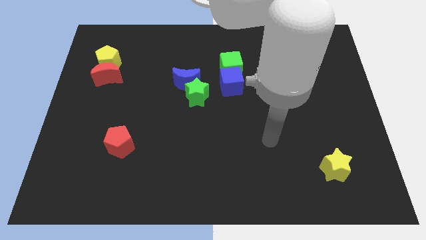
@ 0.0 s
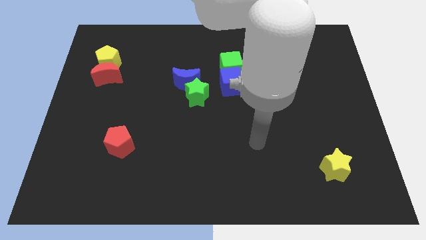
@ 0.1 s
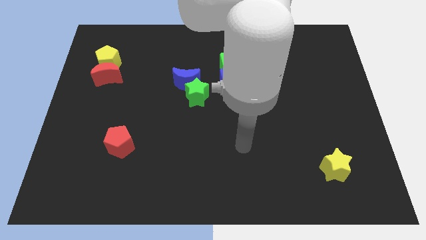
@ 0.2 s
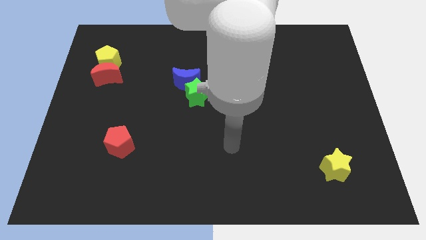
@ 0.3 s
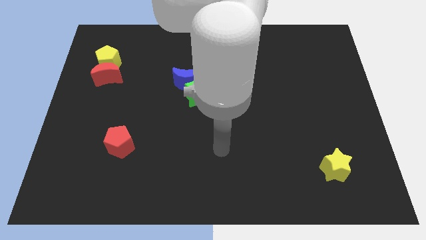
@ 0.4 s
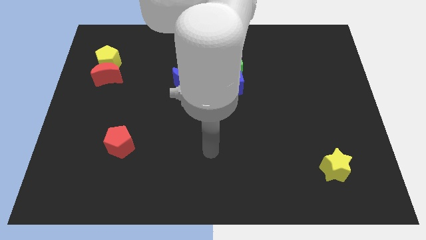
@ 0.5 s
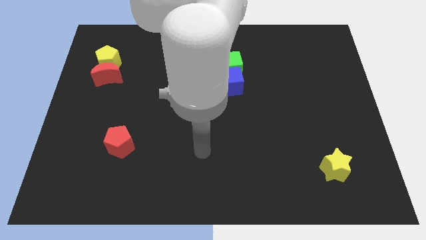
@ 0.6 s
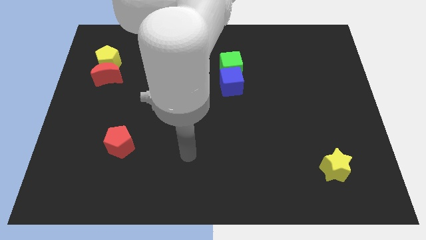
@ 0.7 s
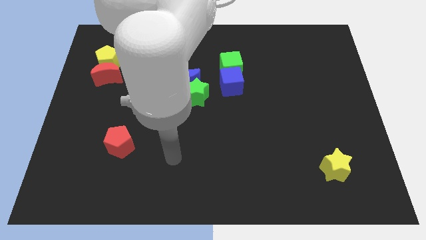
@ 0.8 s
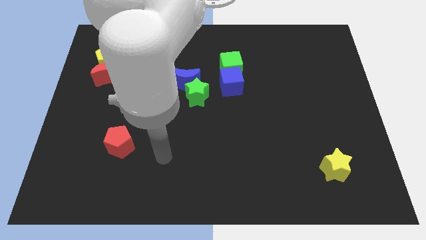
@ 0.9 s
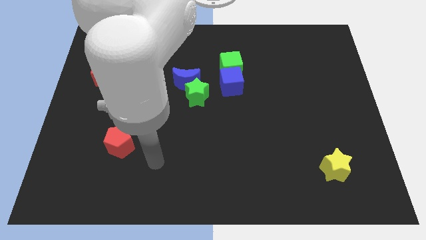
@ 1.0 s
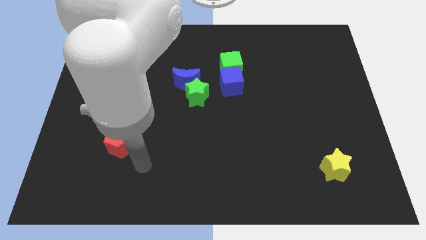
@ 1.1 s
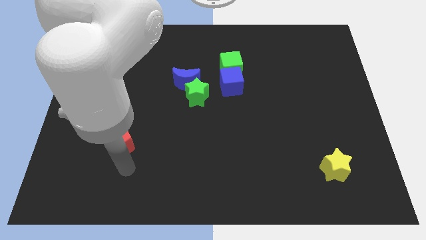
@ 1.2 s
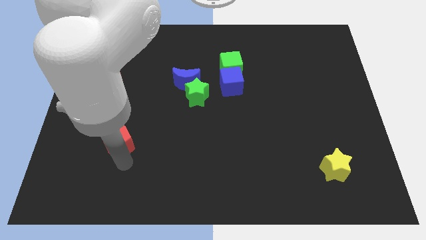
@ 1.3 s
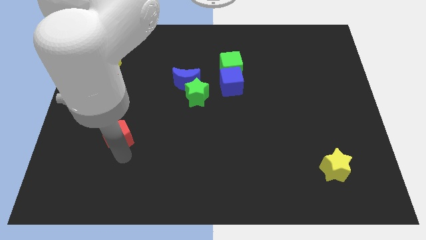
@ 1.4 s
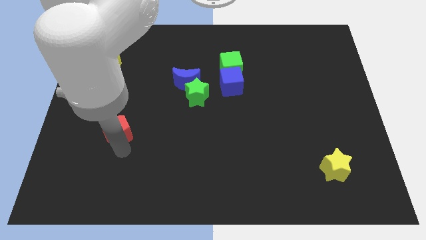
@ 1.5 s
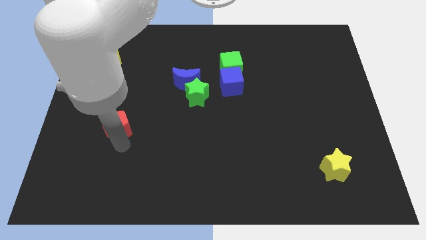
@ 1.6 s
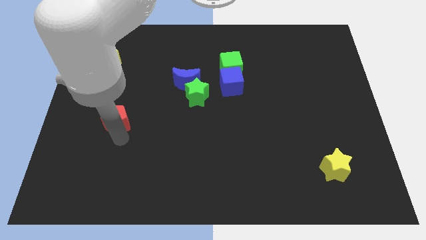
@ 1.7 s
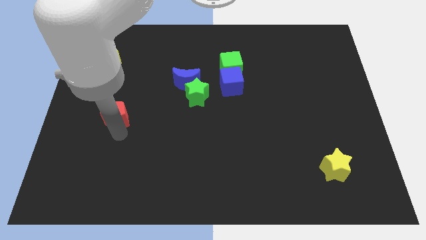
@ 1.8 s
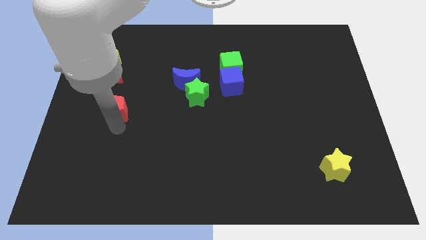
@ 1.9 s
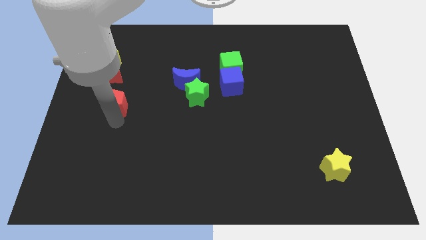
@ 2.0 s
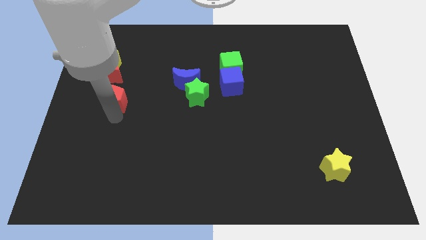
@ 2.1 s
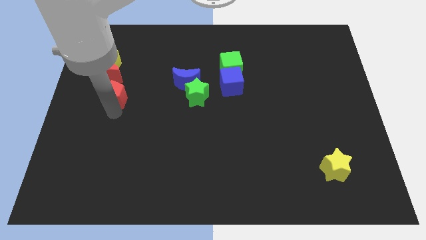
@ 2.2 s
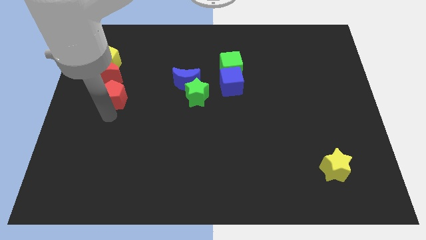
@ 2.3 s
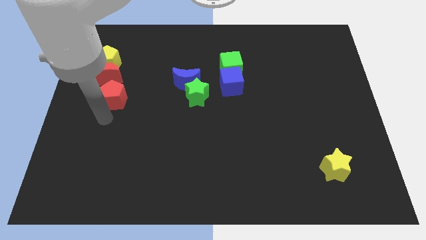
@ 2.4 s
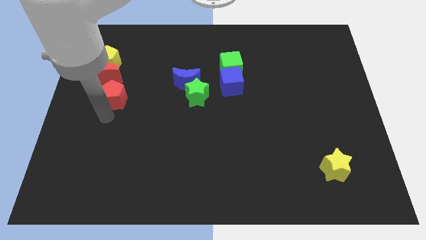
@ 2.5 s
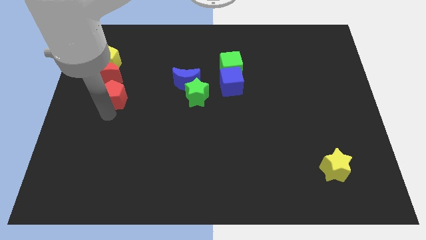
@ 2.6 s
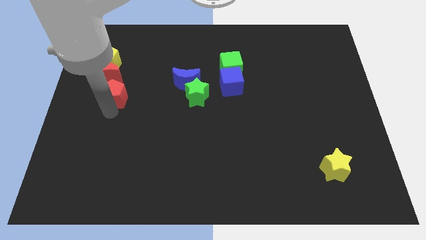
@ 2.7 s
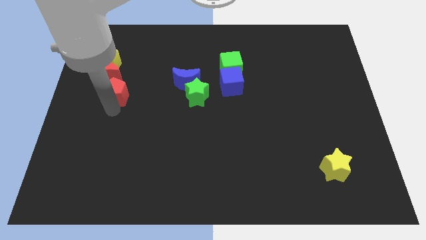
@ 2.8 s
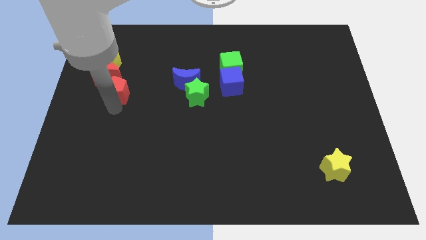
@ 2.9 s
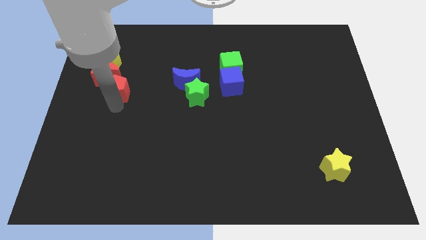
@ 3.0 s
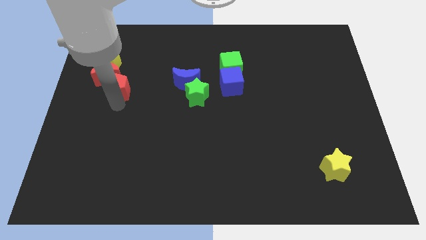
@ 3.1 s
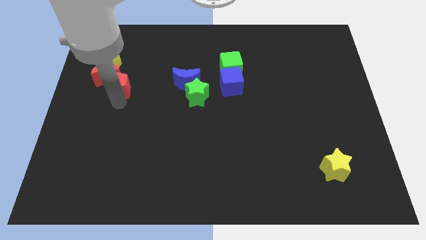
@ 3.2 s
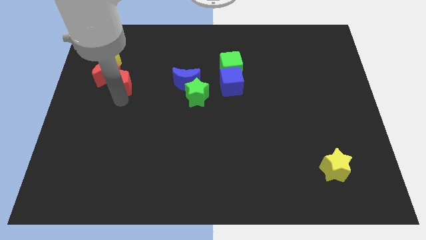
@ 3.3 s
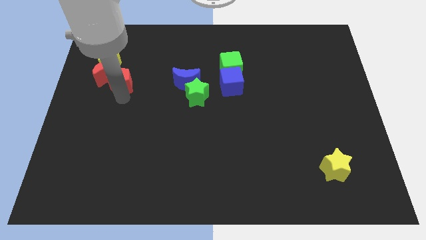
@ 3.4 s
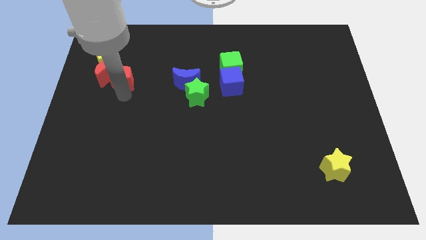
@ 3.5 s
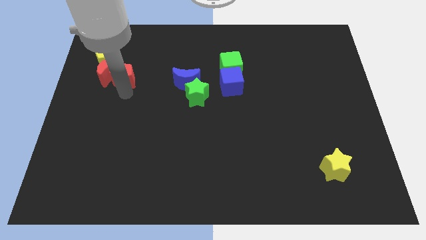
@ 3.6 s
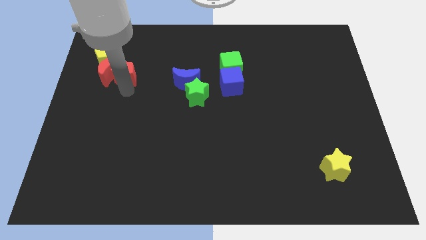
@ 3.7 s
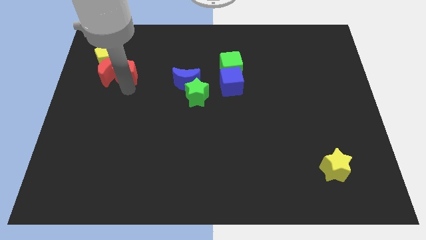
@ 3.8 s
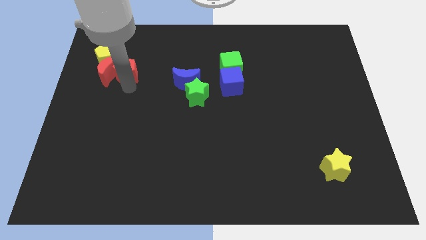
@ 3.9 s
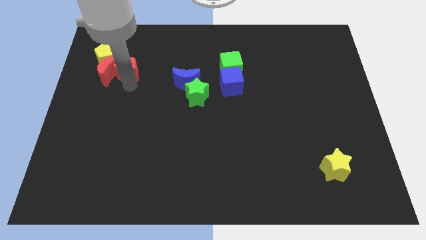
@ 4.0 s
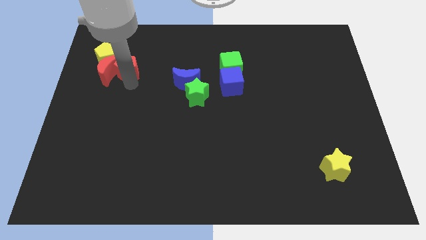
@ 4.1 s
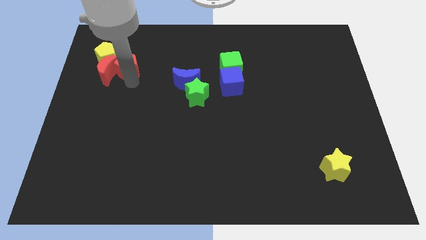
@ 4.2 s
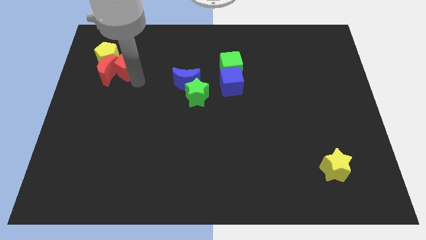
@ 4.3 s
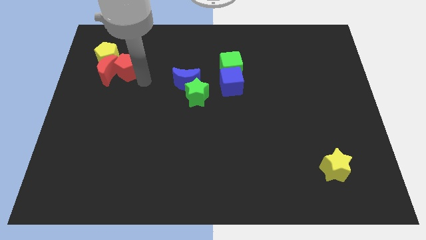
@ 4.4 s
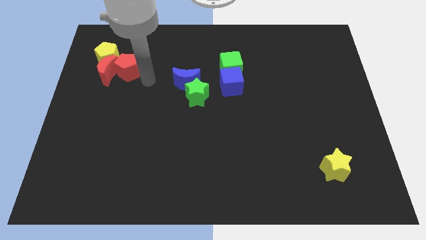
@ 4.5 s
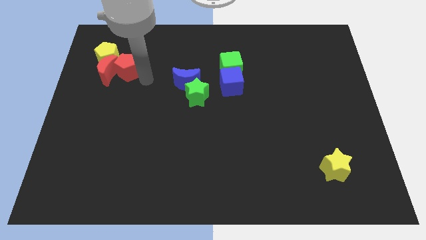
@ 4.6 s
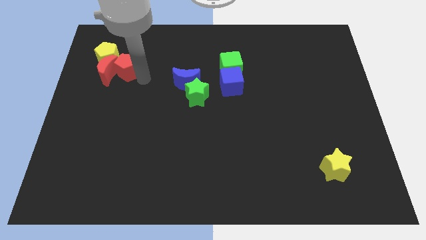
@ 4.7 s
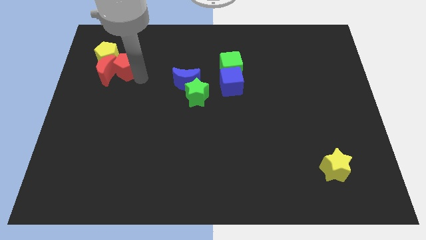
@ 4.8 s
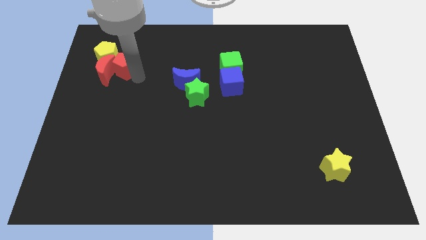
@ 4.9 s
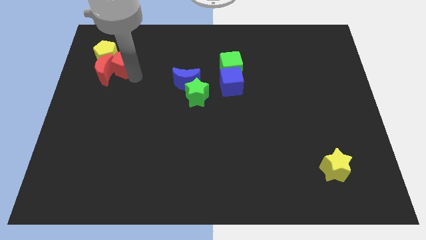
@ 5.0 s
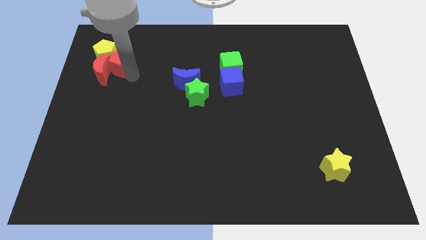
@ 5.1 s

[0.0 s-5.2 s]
push the red pentagon next to the yellow pentagon

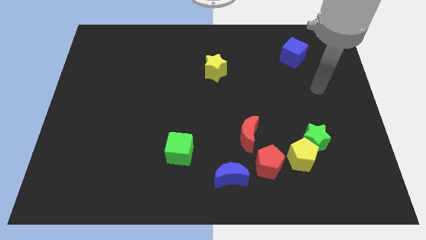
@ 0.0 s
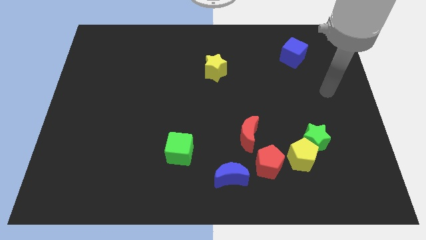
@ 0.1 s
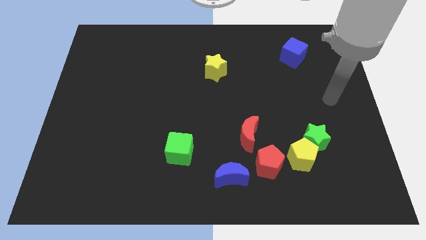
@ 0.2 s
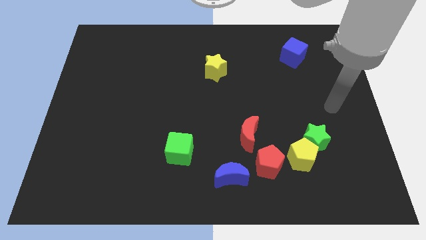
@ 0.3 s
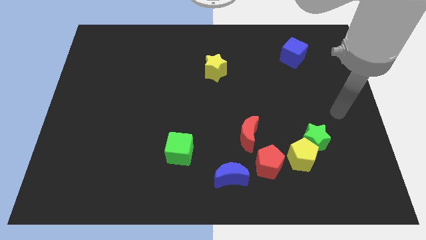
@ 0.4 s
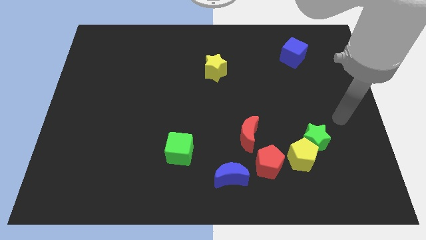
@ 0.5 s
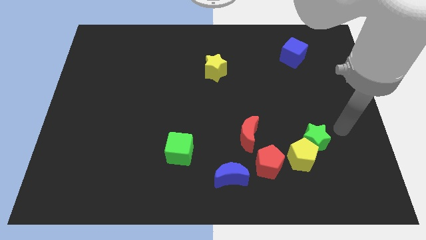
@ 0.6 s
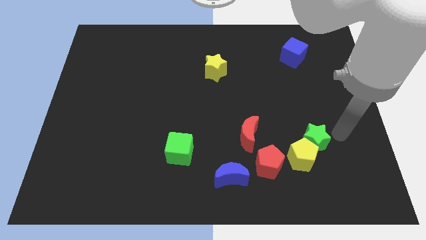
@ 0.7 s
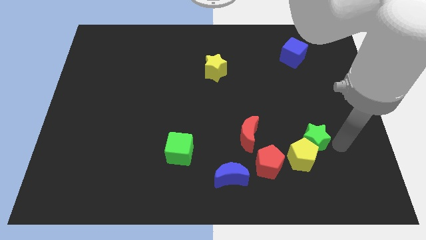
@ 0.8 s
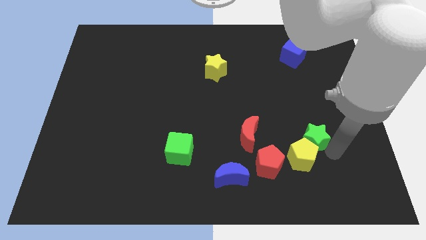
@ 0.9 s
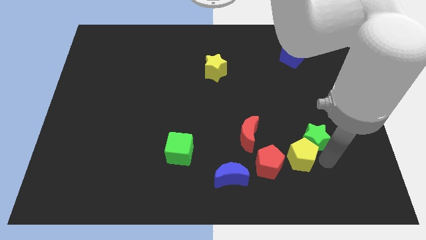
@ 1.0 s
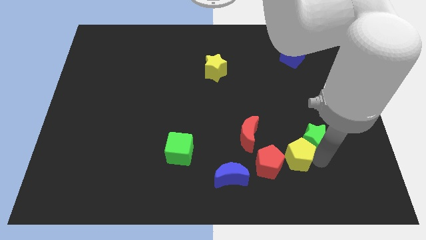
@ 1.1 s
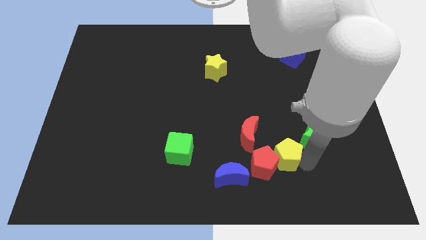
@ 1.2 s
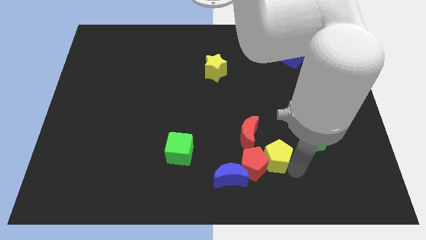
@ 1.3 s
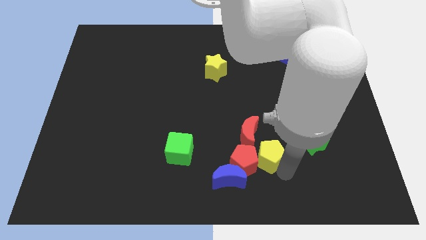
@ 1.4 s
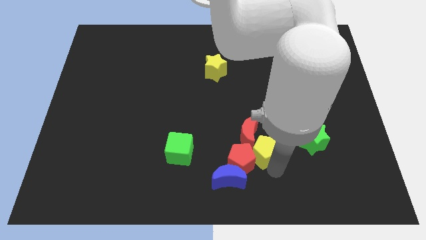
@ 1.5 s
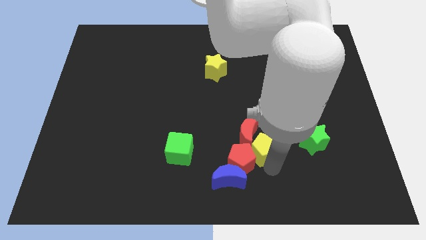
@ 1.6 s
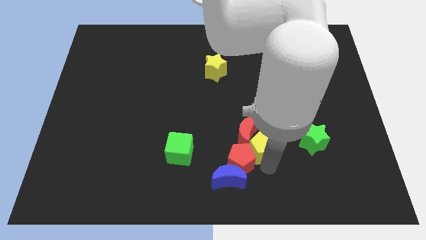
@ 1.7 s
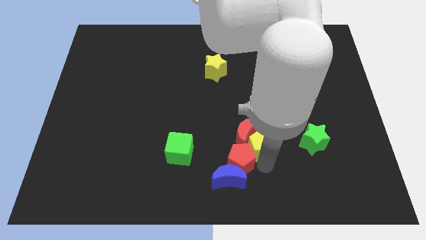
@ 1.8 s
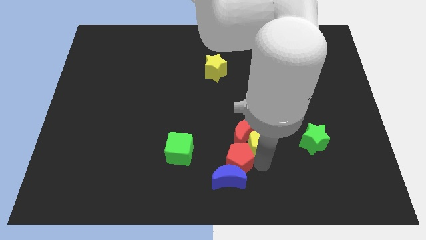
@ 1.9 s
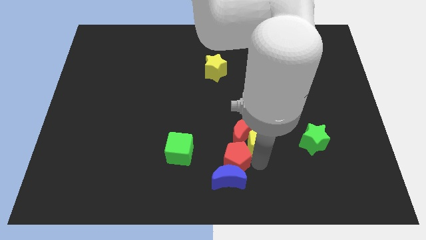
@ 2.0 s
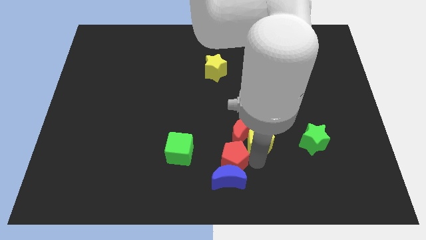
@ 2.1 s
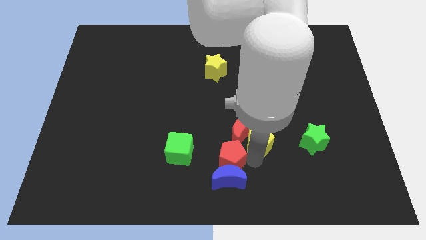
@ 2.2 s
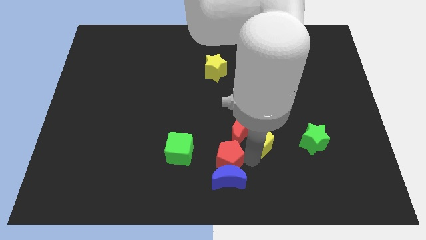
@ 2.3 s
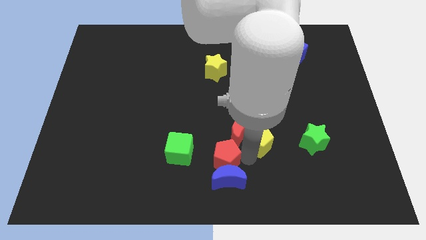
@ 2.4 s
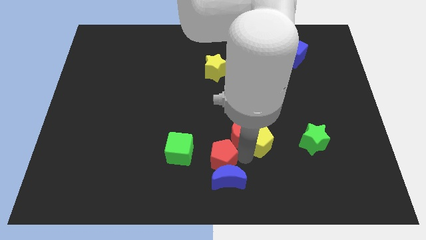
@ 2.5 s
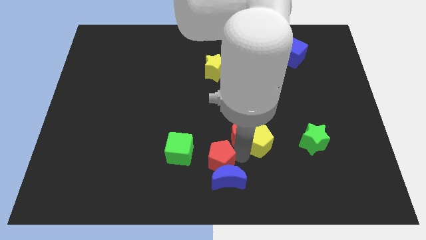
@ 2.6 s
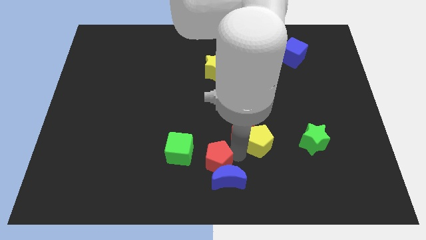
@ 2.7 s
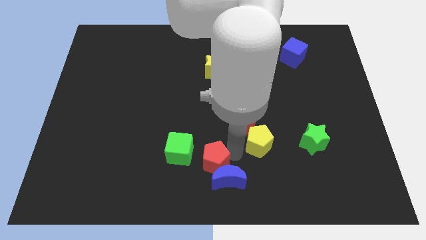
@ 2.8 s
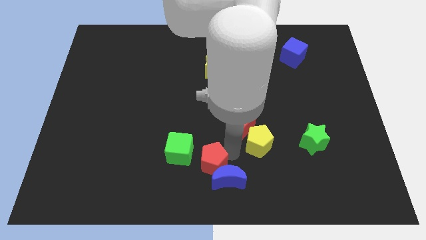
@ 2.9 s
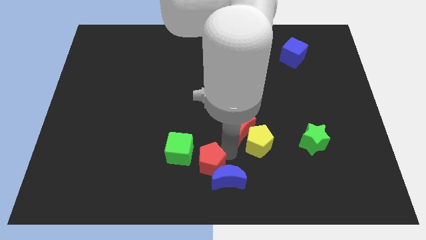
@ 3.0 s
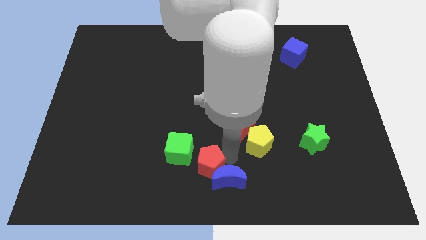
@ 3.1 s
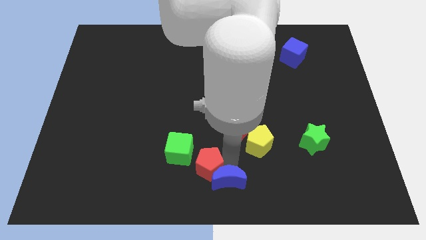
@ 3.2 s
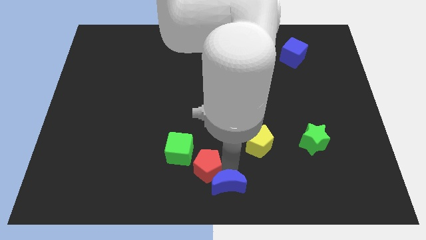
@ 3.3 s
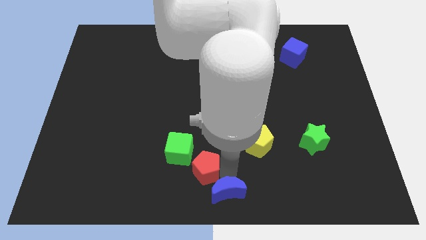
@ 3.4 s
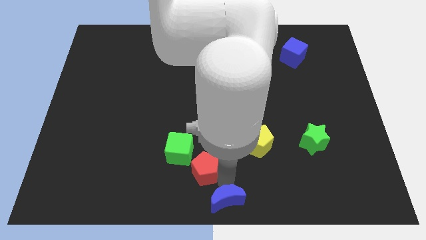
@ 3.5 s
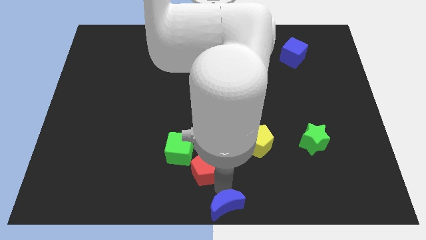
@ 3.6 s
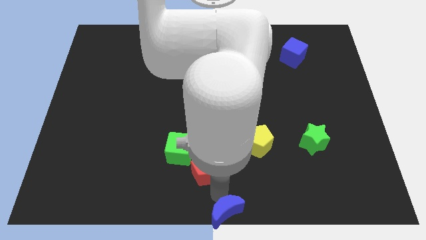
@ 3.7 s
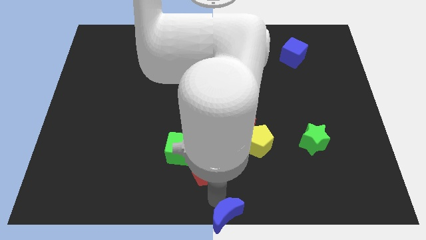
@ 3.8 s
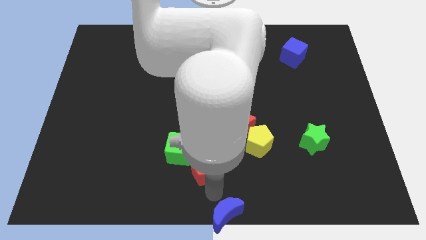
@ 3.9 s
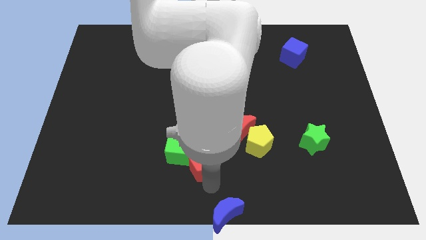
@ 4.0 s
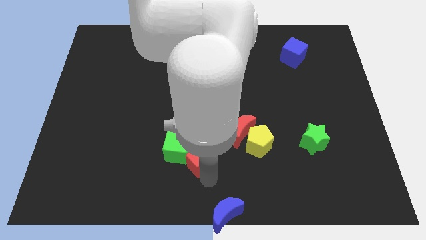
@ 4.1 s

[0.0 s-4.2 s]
put the red pentagon close to the green cube
